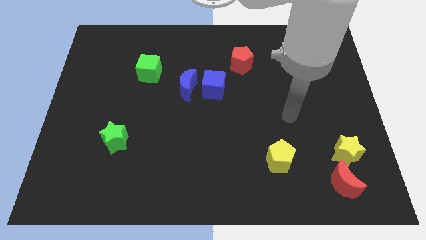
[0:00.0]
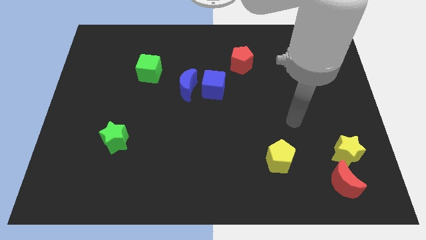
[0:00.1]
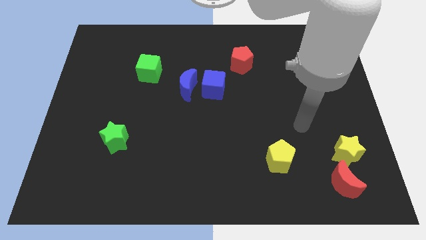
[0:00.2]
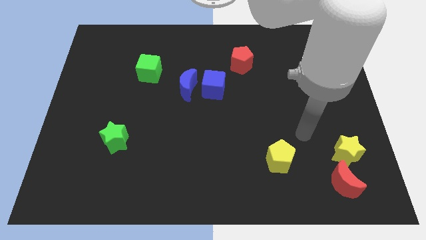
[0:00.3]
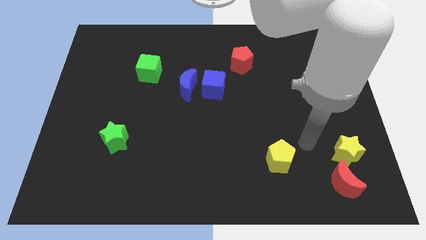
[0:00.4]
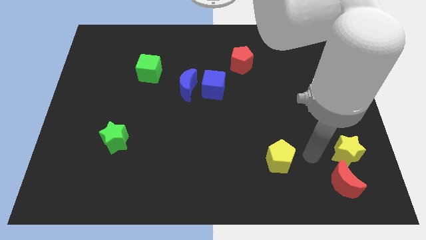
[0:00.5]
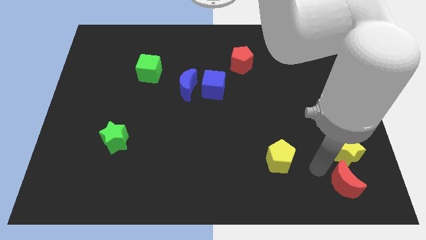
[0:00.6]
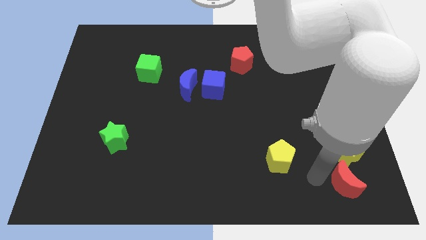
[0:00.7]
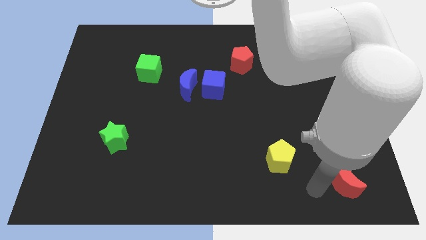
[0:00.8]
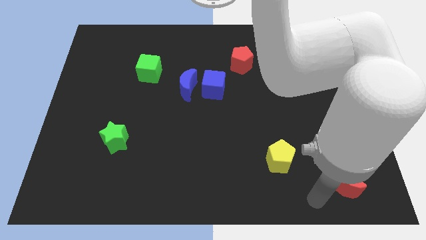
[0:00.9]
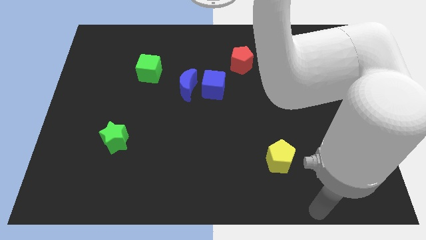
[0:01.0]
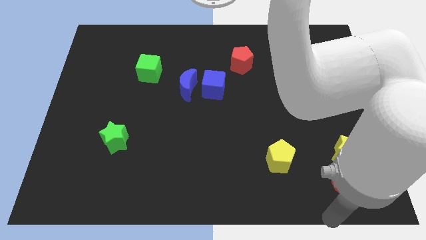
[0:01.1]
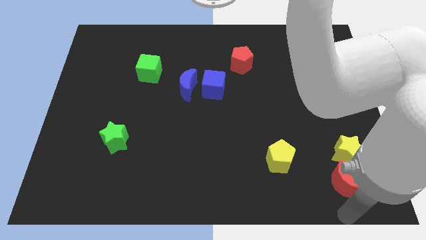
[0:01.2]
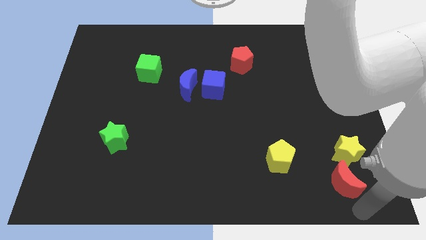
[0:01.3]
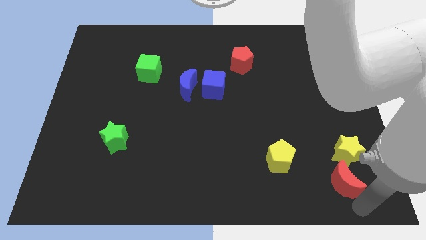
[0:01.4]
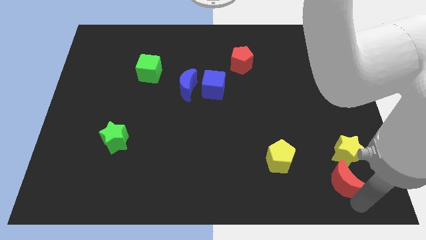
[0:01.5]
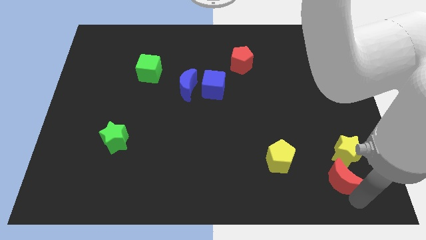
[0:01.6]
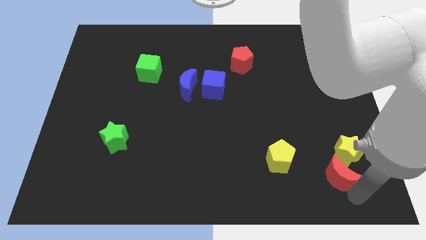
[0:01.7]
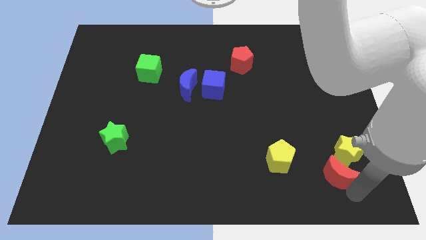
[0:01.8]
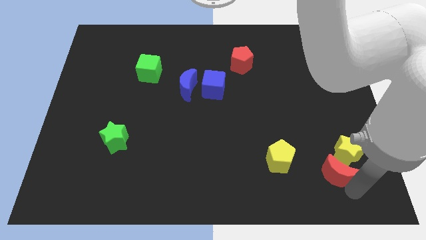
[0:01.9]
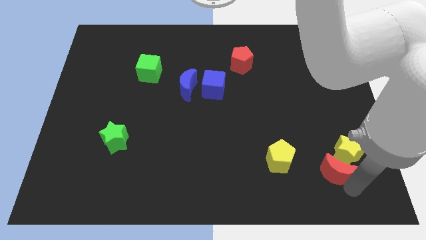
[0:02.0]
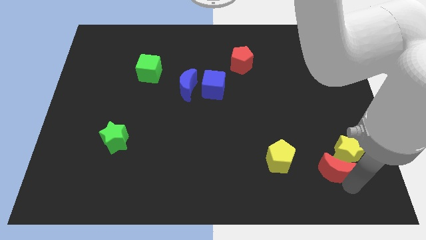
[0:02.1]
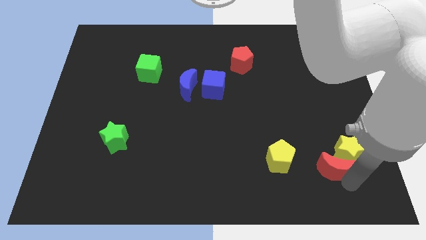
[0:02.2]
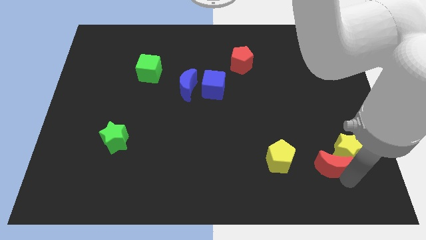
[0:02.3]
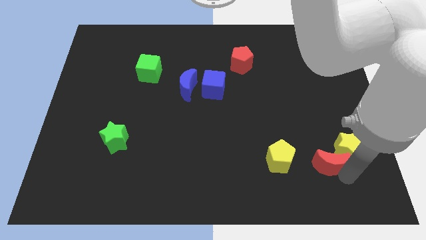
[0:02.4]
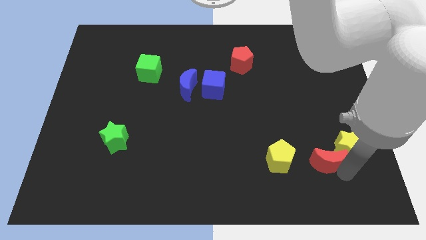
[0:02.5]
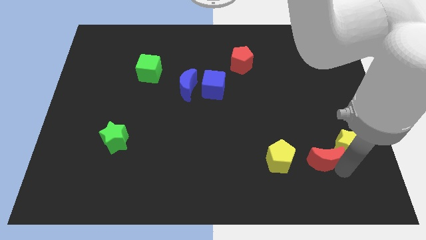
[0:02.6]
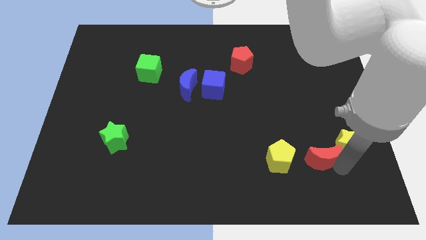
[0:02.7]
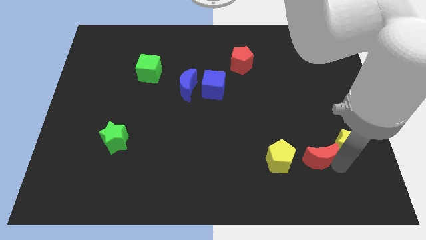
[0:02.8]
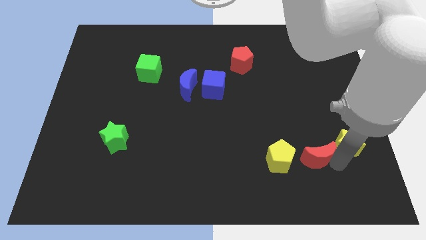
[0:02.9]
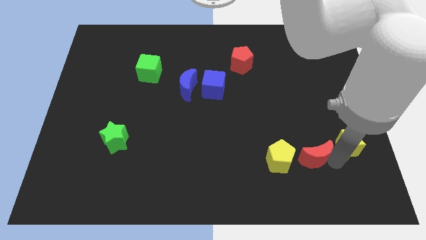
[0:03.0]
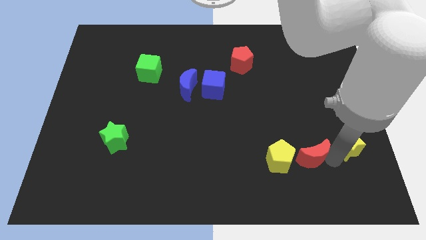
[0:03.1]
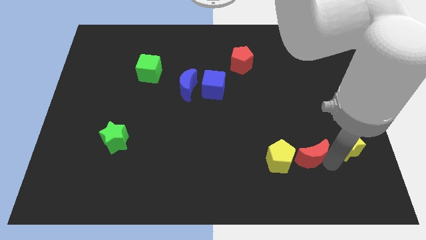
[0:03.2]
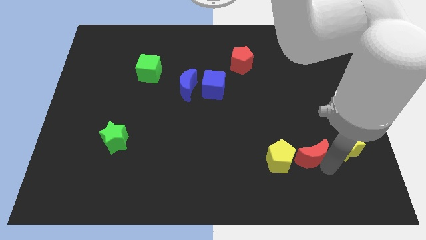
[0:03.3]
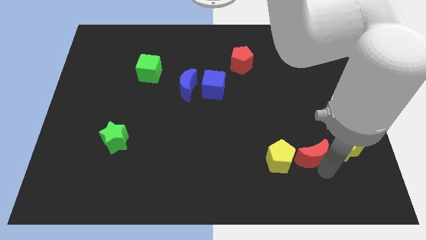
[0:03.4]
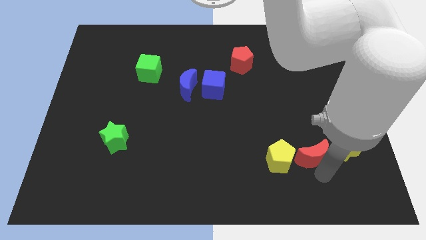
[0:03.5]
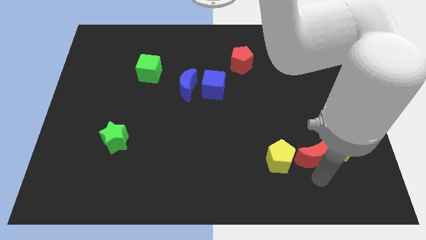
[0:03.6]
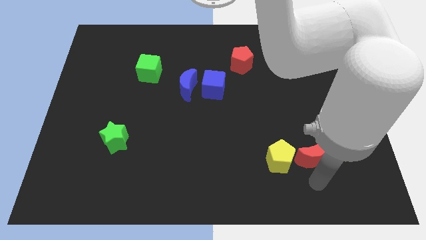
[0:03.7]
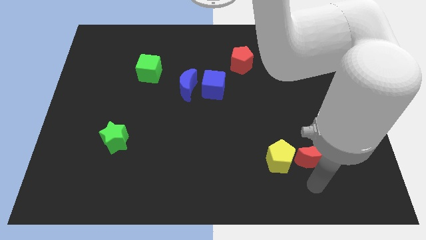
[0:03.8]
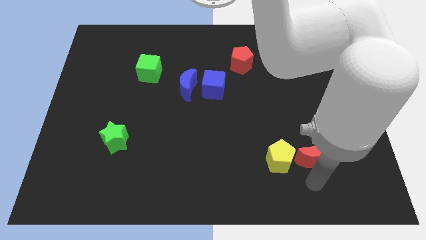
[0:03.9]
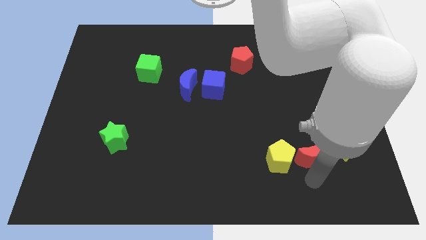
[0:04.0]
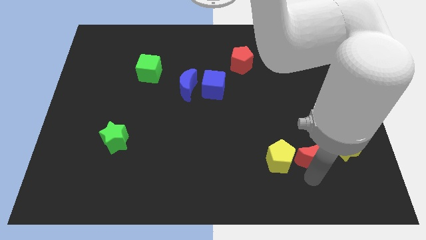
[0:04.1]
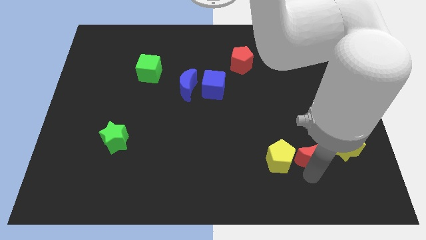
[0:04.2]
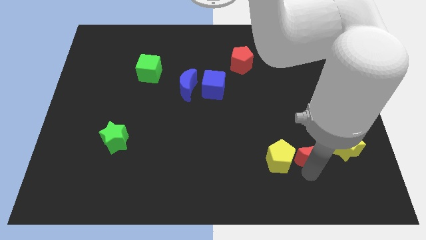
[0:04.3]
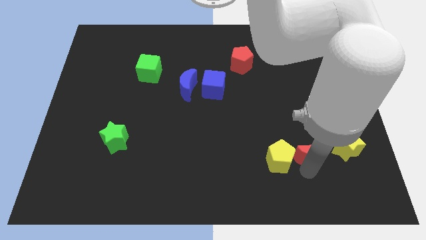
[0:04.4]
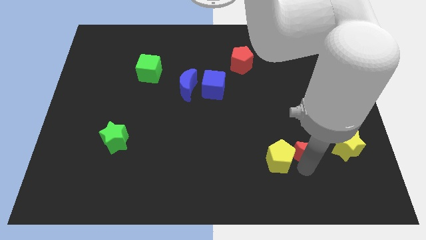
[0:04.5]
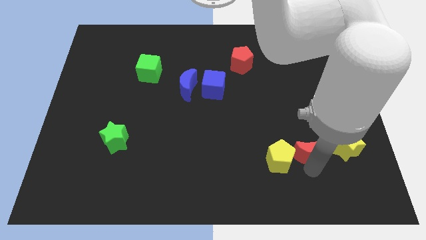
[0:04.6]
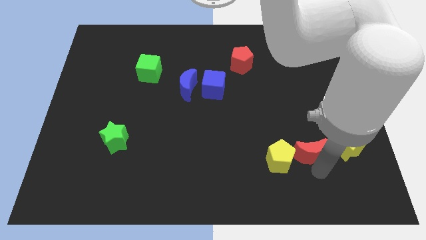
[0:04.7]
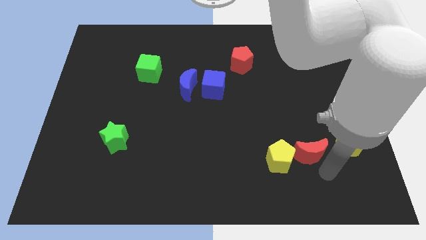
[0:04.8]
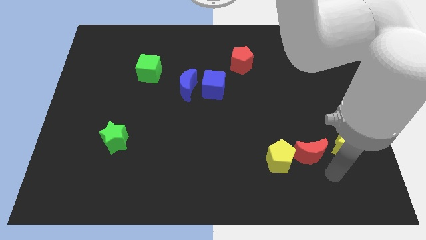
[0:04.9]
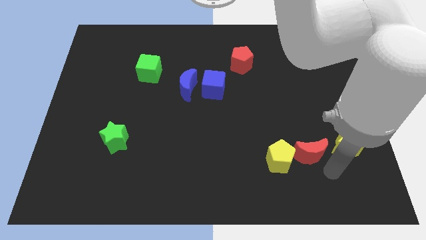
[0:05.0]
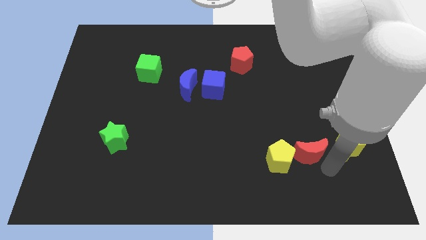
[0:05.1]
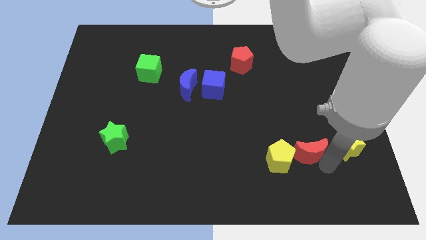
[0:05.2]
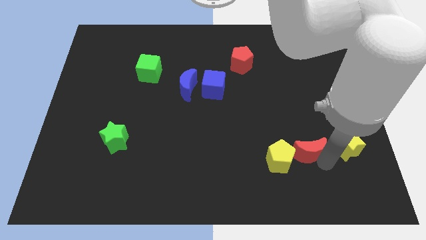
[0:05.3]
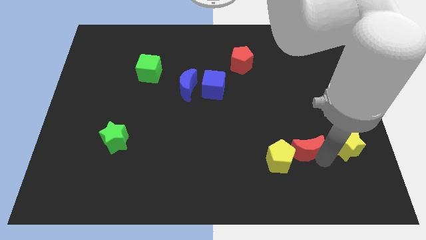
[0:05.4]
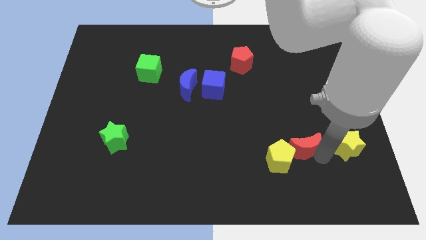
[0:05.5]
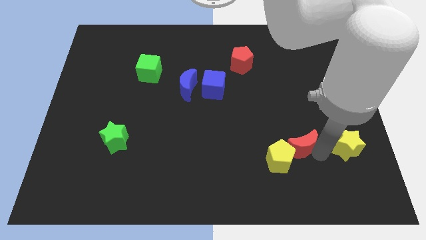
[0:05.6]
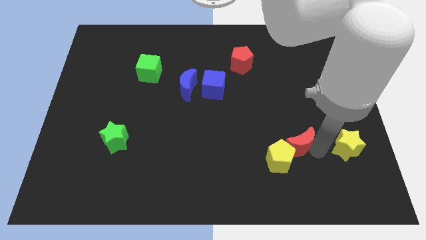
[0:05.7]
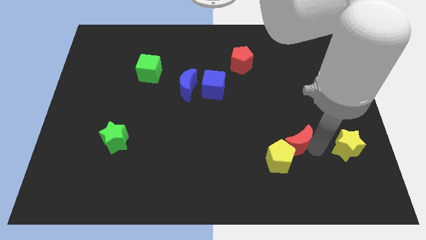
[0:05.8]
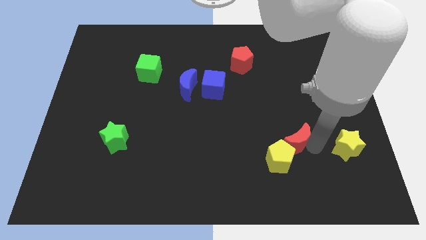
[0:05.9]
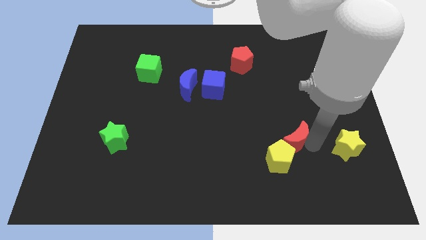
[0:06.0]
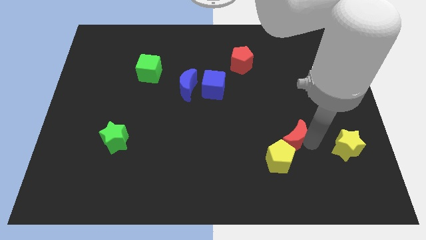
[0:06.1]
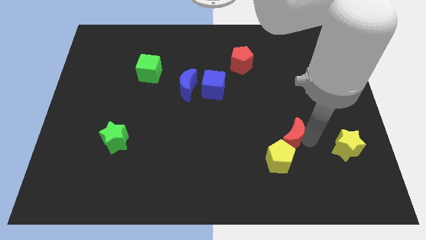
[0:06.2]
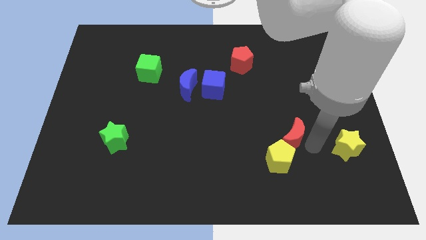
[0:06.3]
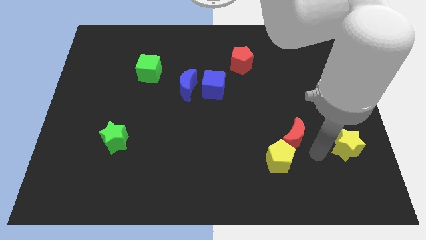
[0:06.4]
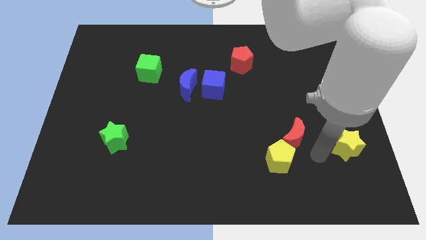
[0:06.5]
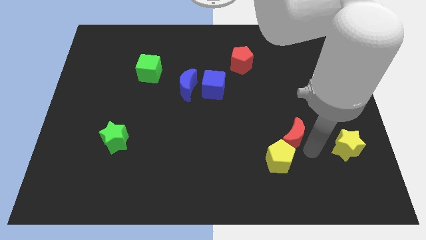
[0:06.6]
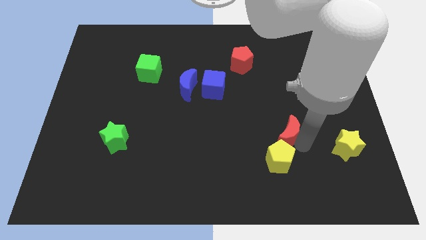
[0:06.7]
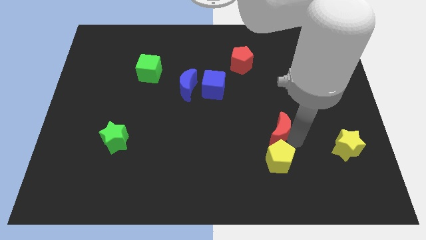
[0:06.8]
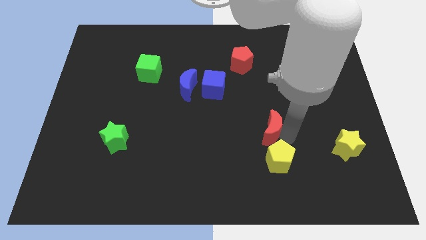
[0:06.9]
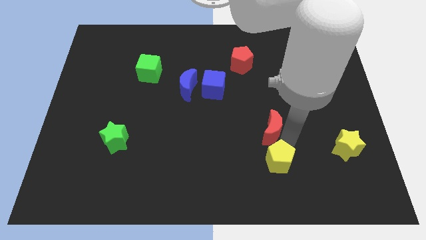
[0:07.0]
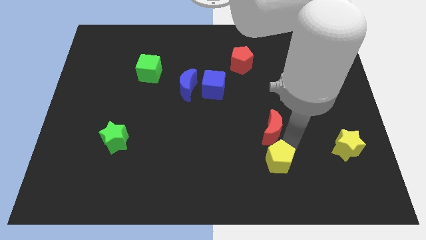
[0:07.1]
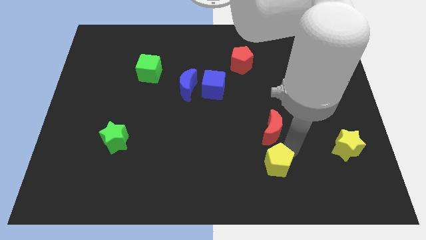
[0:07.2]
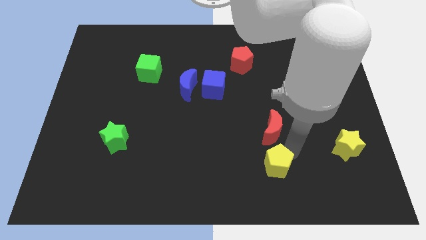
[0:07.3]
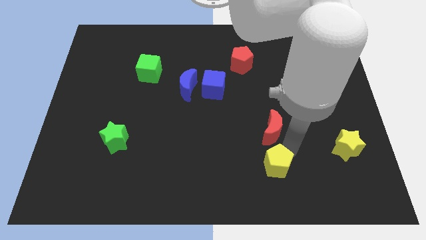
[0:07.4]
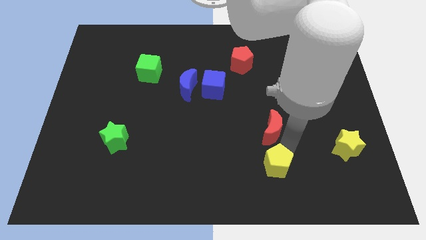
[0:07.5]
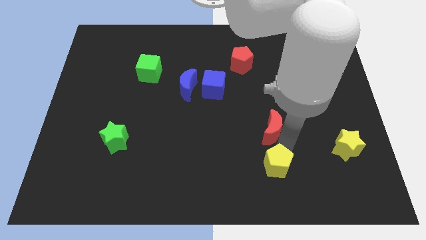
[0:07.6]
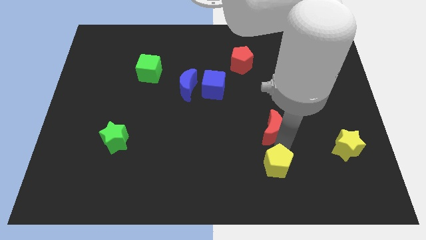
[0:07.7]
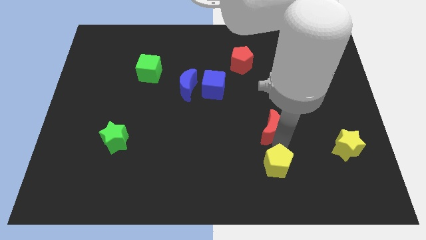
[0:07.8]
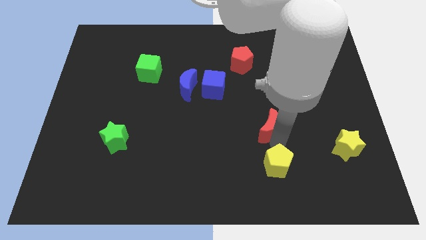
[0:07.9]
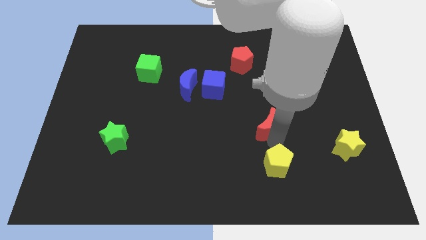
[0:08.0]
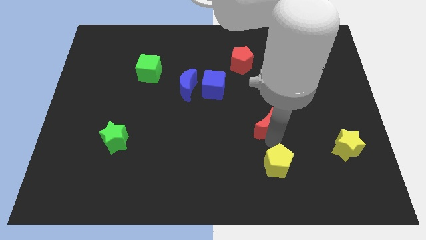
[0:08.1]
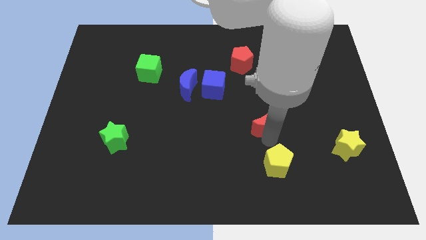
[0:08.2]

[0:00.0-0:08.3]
push the red moon upwards and then left
